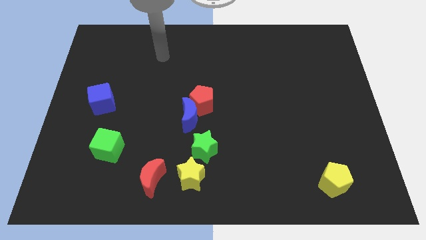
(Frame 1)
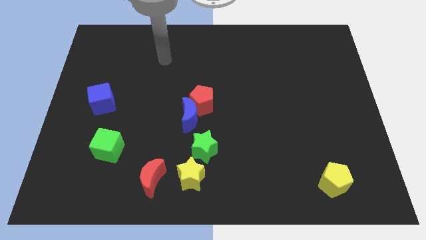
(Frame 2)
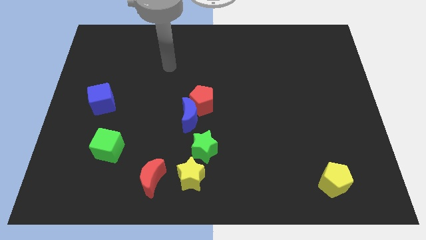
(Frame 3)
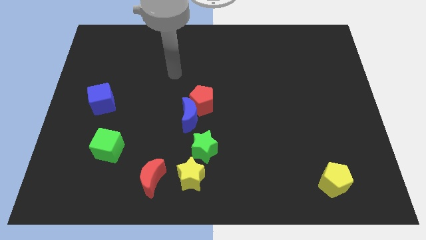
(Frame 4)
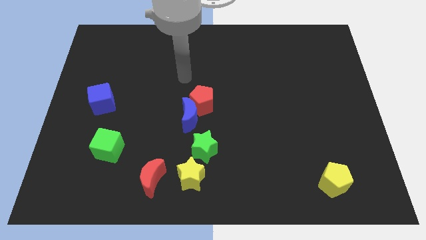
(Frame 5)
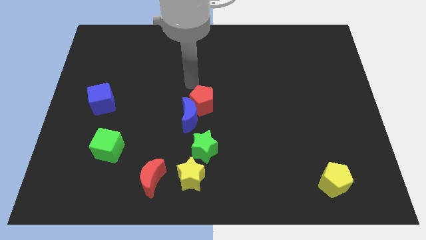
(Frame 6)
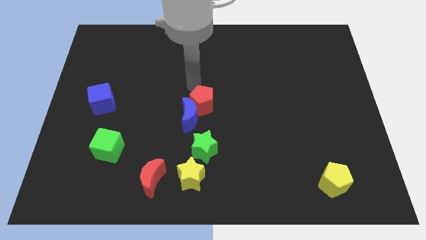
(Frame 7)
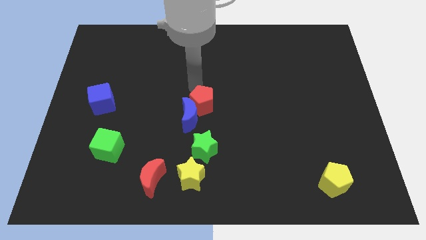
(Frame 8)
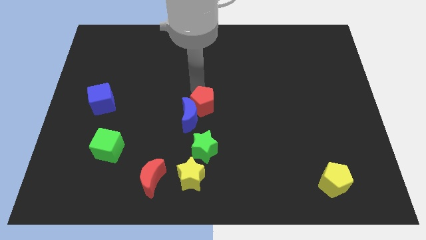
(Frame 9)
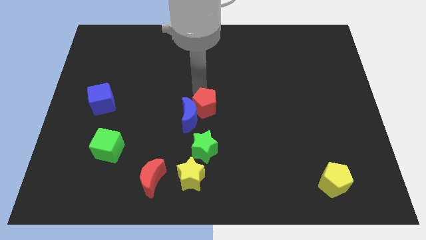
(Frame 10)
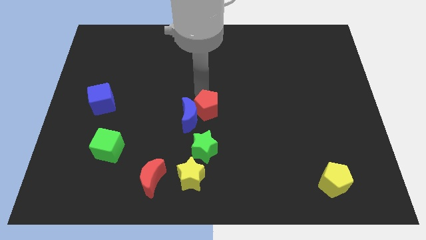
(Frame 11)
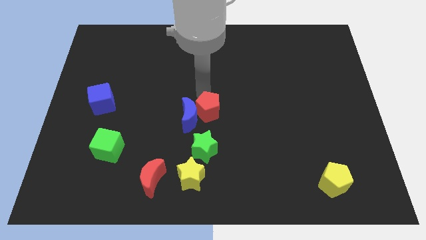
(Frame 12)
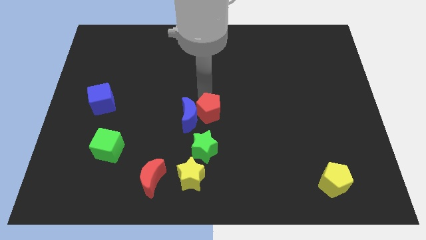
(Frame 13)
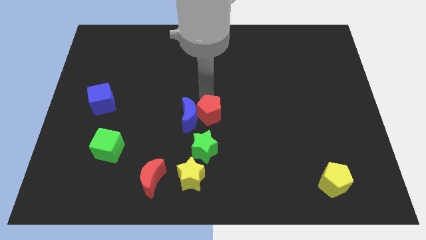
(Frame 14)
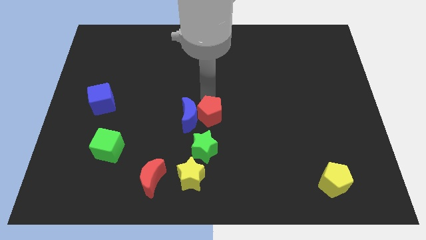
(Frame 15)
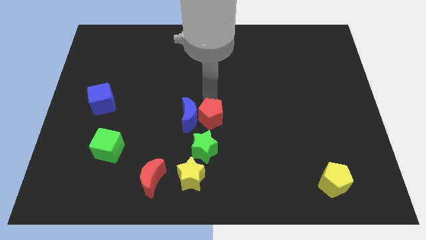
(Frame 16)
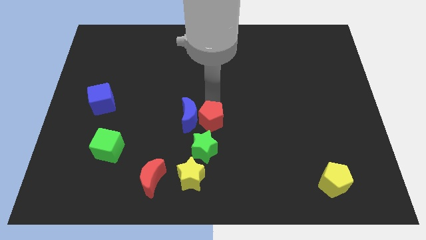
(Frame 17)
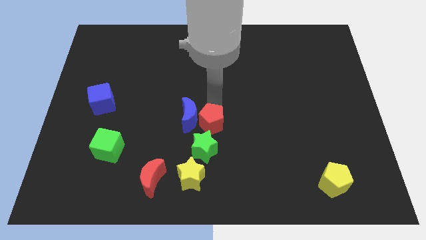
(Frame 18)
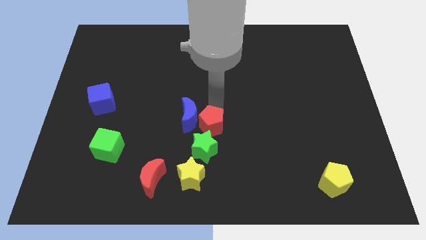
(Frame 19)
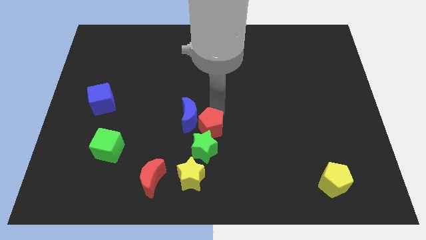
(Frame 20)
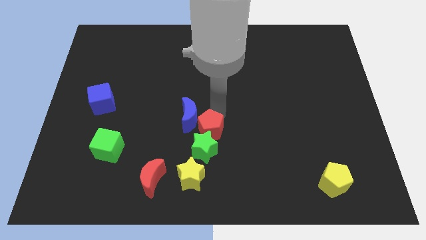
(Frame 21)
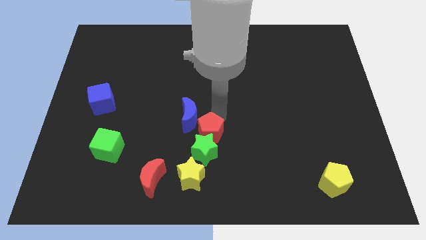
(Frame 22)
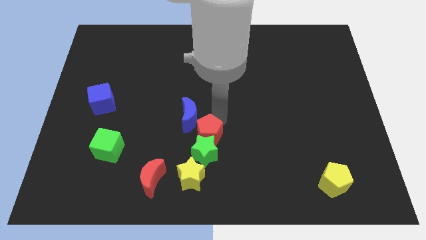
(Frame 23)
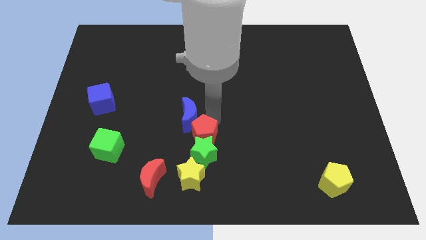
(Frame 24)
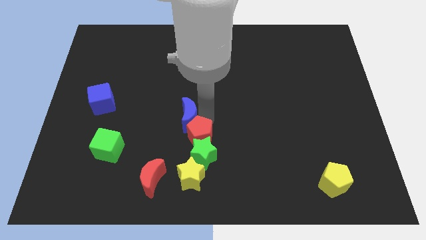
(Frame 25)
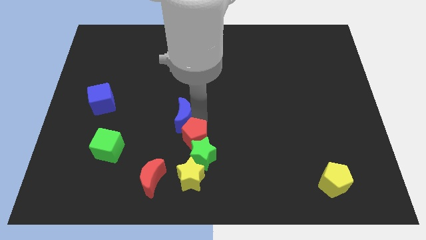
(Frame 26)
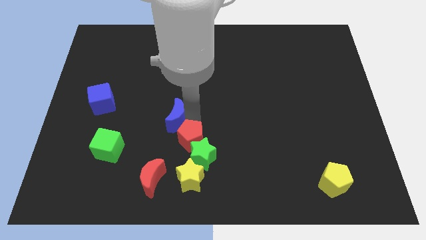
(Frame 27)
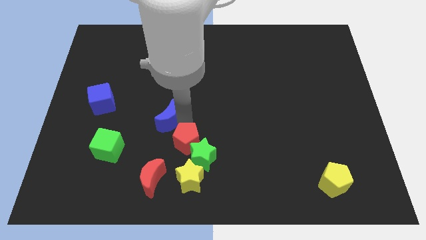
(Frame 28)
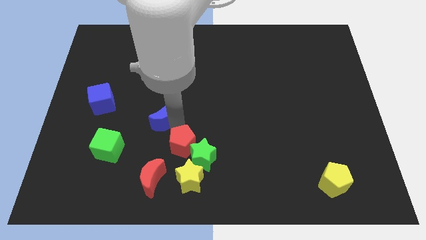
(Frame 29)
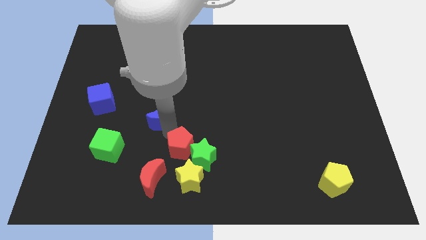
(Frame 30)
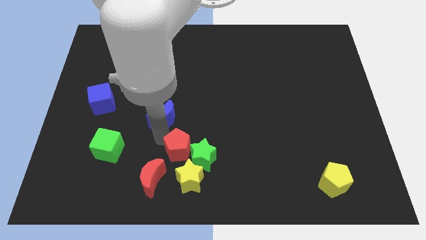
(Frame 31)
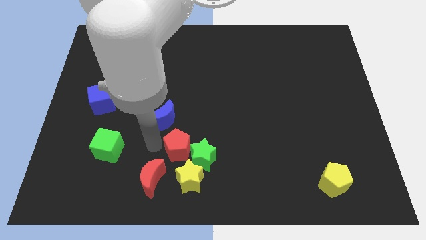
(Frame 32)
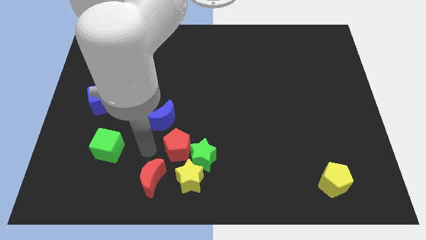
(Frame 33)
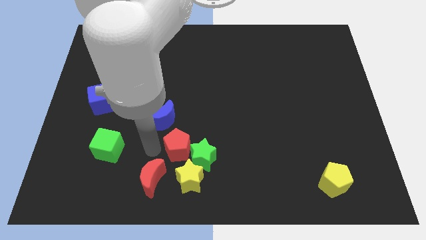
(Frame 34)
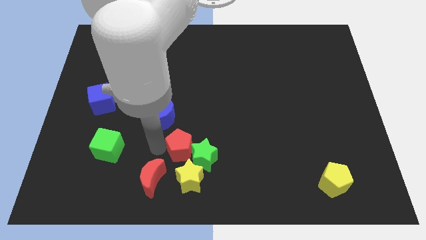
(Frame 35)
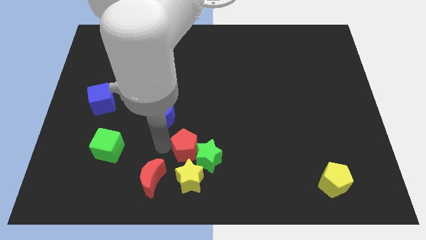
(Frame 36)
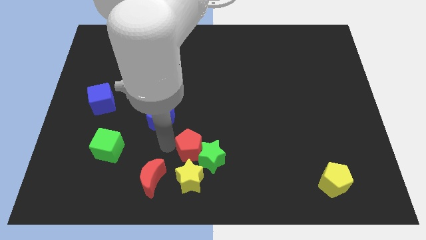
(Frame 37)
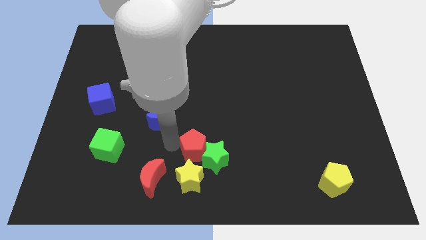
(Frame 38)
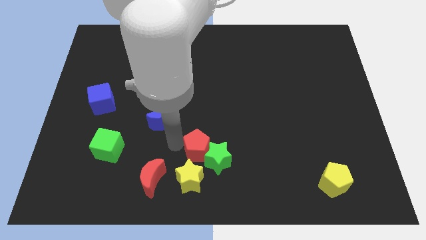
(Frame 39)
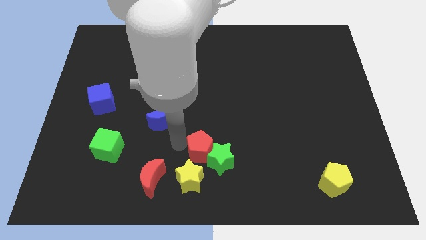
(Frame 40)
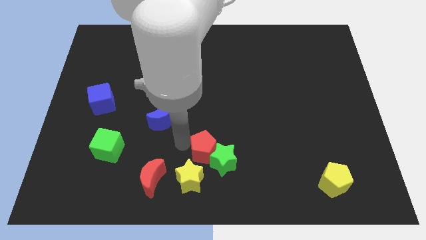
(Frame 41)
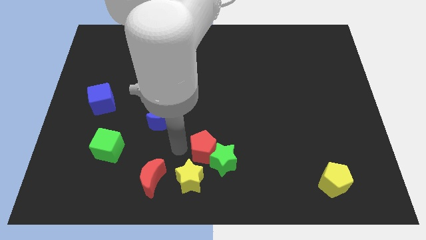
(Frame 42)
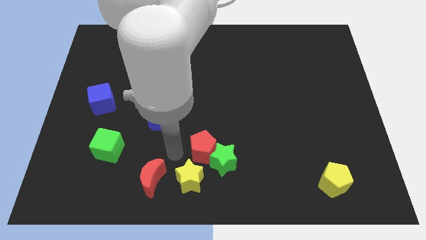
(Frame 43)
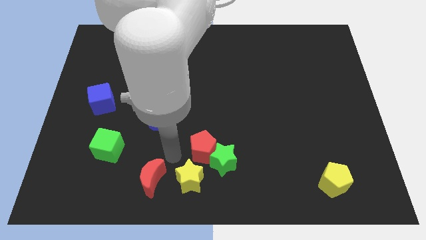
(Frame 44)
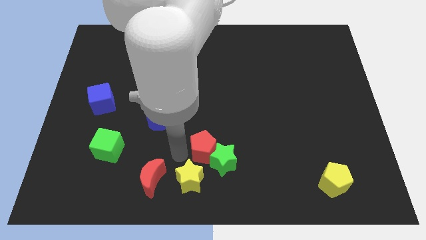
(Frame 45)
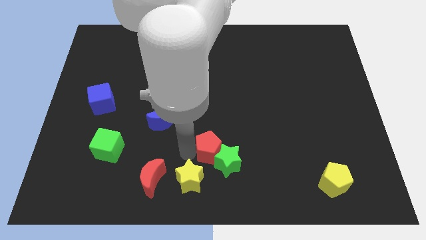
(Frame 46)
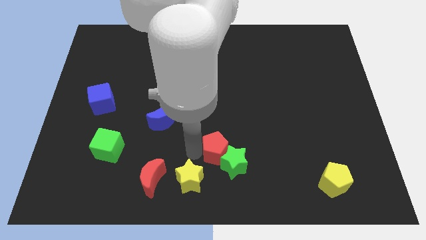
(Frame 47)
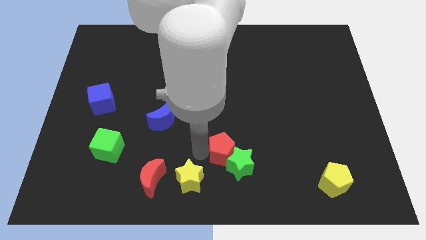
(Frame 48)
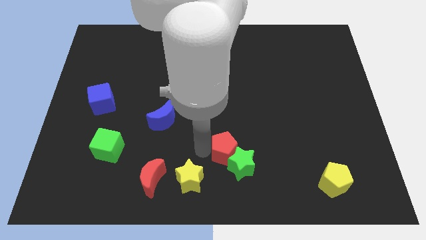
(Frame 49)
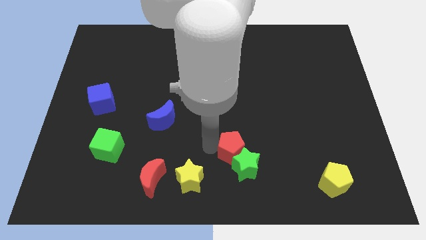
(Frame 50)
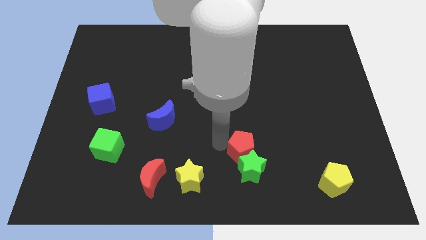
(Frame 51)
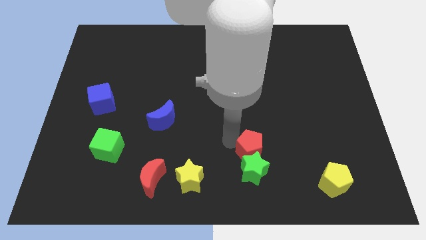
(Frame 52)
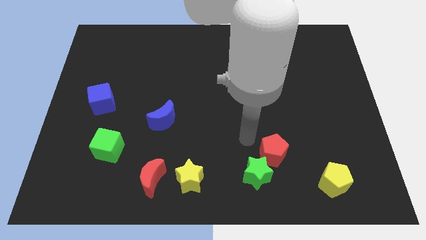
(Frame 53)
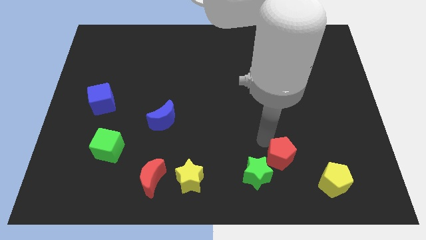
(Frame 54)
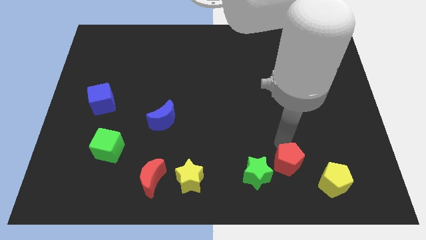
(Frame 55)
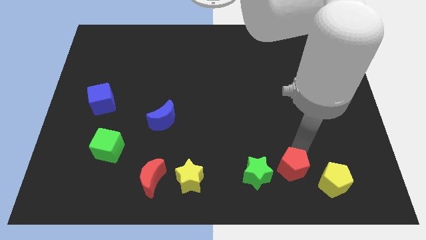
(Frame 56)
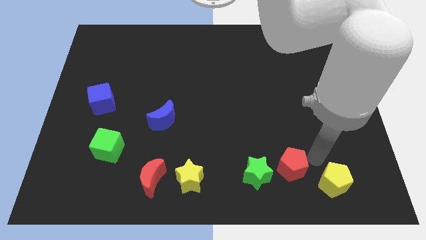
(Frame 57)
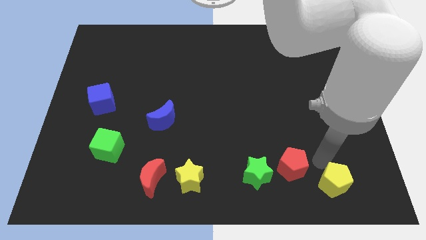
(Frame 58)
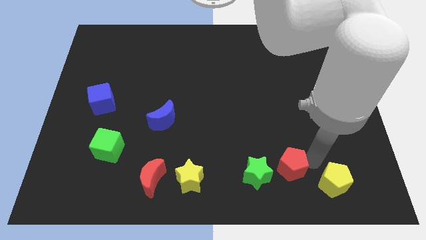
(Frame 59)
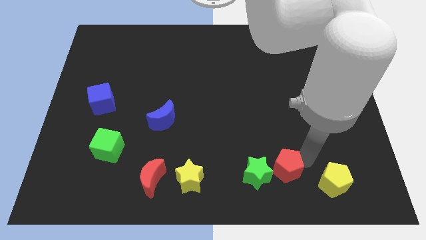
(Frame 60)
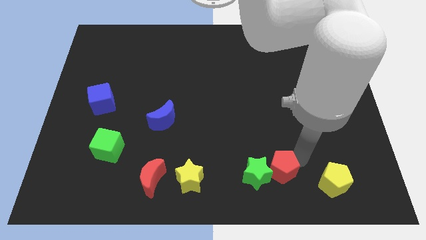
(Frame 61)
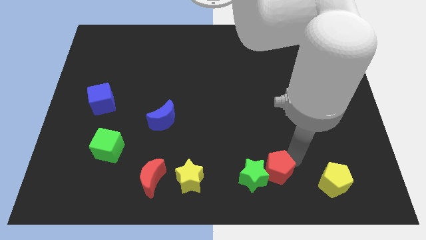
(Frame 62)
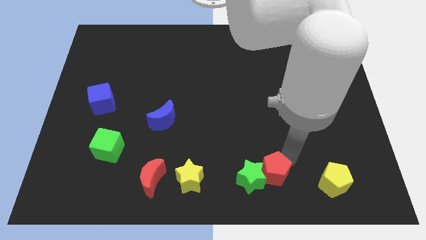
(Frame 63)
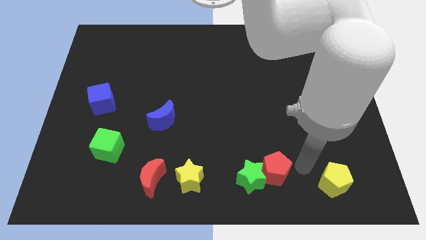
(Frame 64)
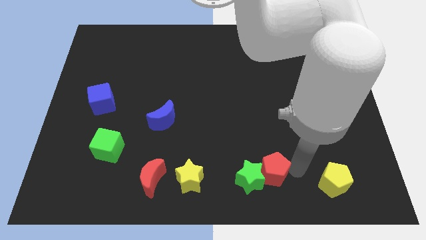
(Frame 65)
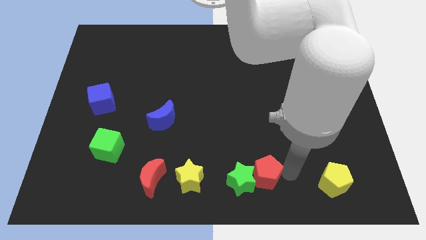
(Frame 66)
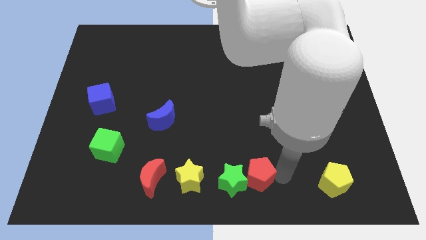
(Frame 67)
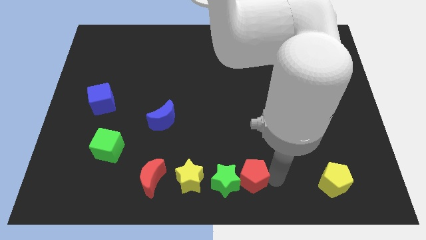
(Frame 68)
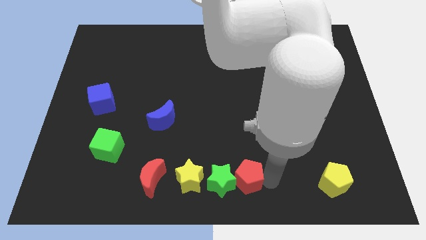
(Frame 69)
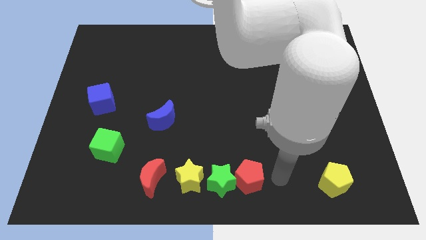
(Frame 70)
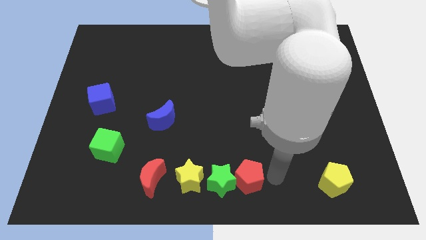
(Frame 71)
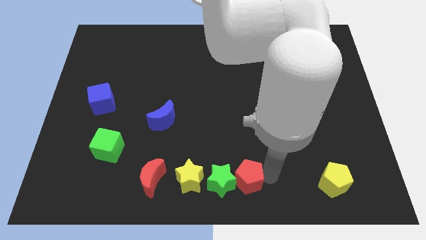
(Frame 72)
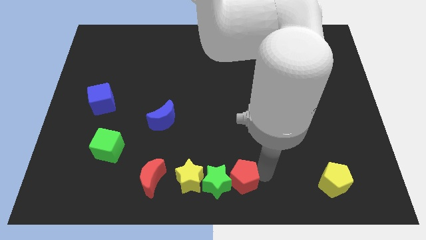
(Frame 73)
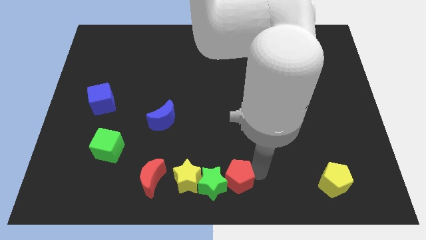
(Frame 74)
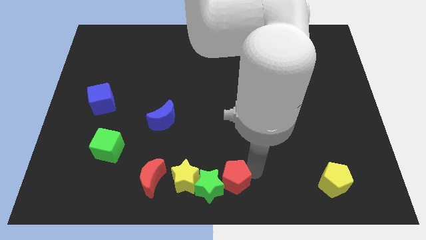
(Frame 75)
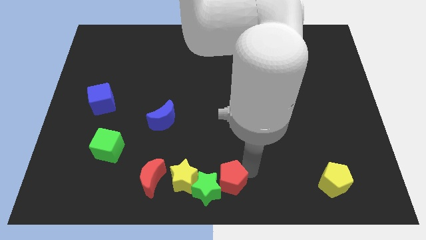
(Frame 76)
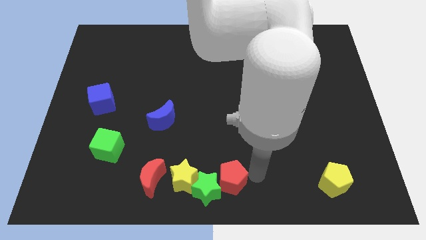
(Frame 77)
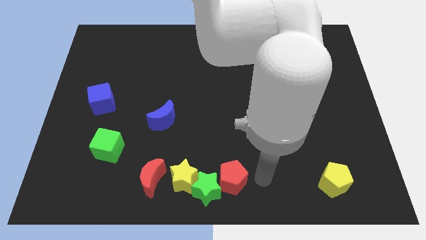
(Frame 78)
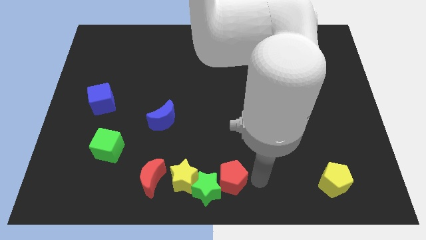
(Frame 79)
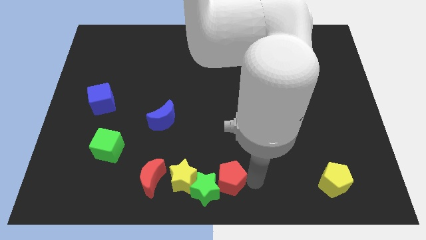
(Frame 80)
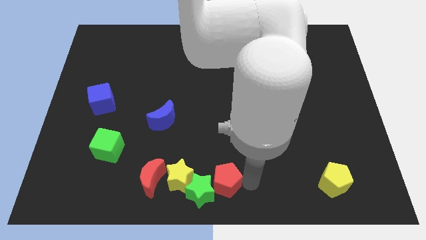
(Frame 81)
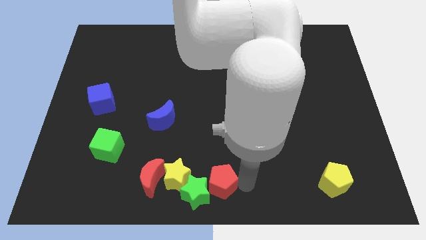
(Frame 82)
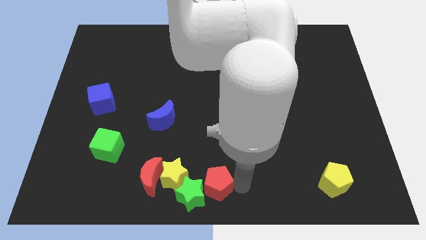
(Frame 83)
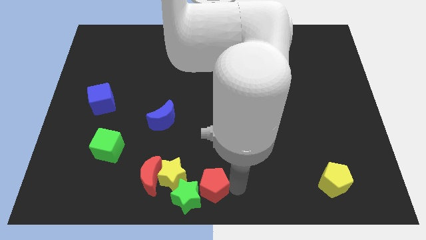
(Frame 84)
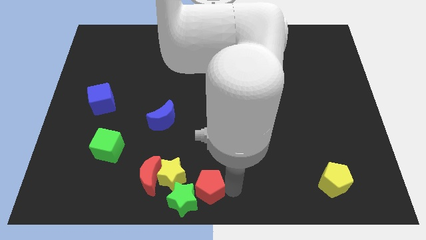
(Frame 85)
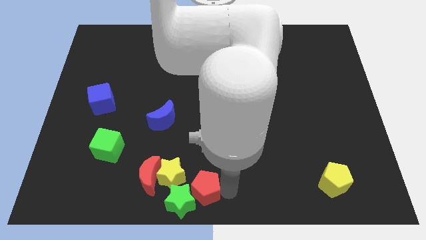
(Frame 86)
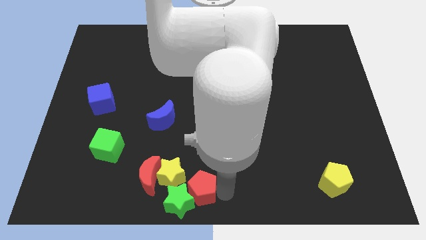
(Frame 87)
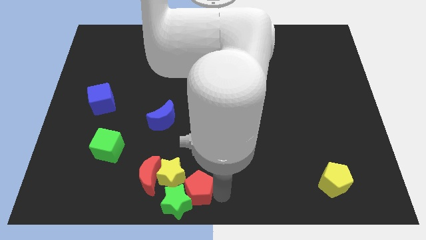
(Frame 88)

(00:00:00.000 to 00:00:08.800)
move the red pentagon close to the yellow star
